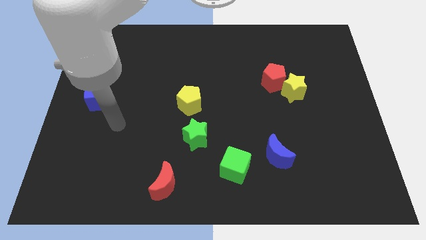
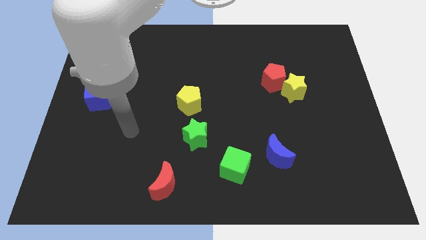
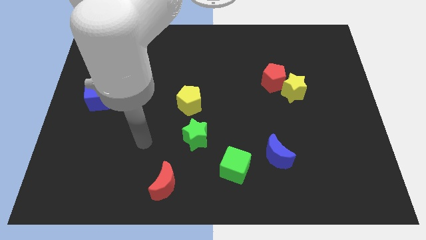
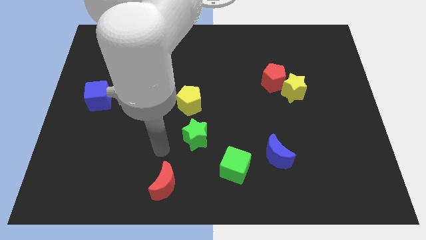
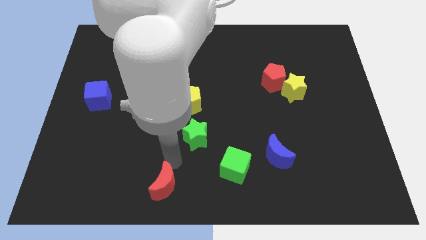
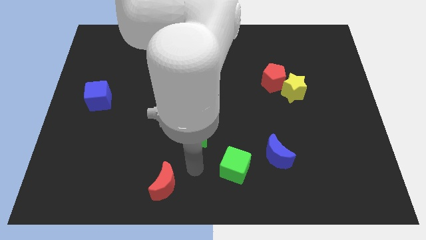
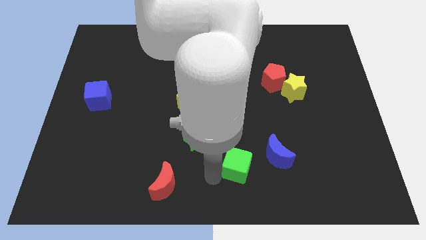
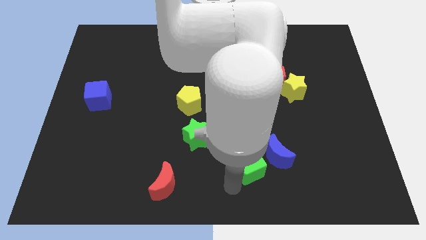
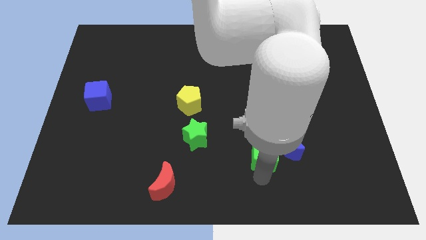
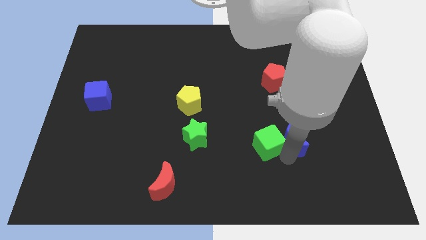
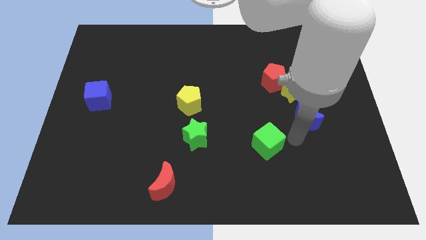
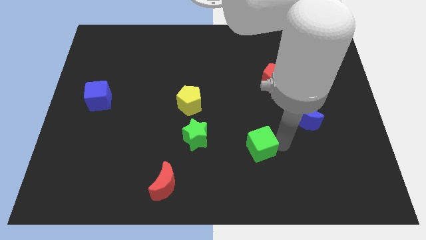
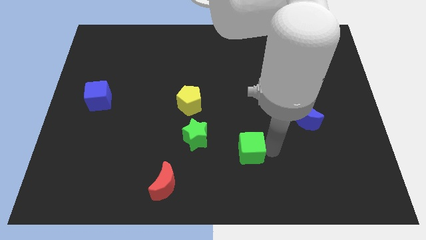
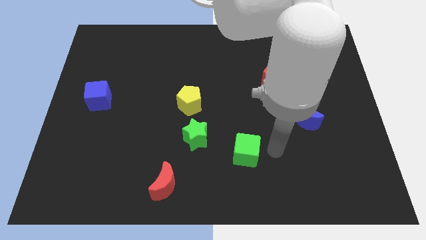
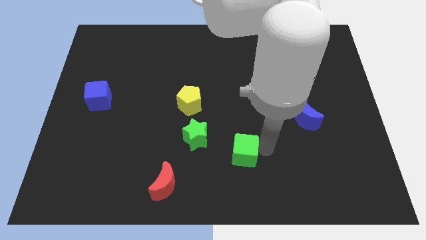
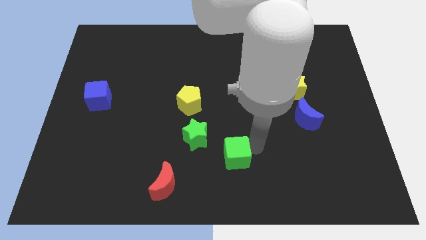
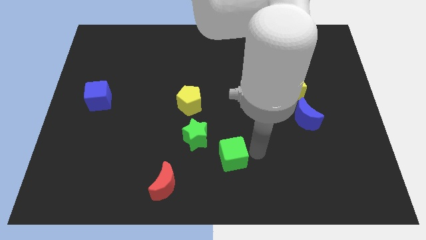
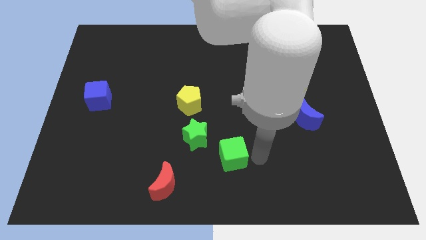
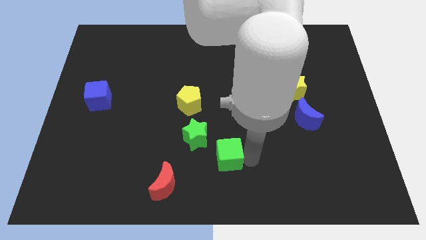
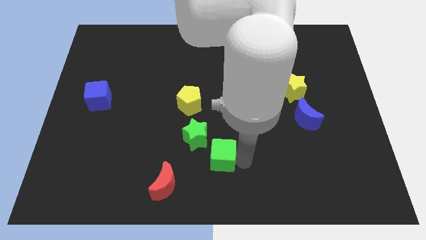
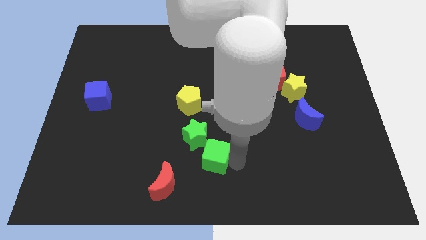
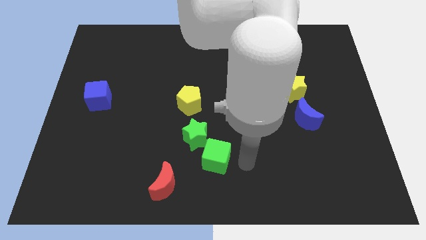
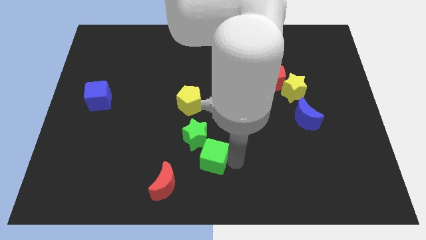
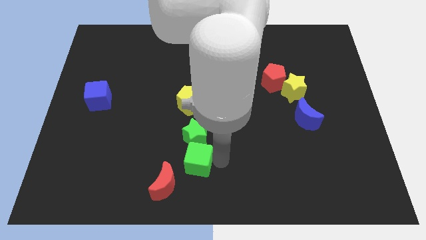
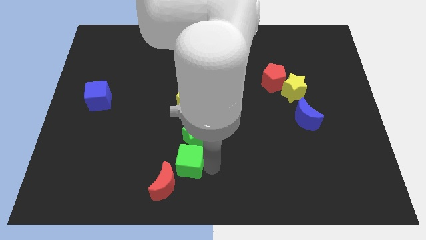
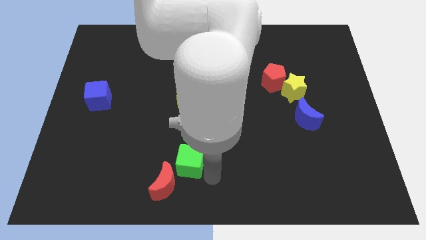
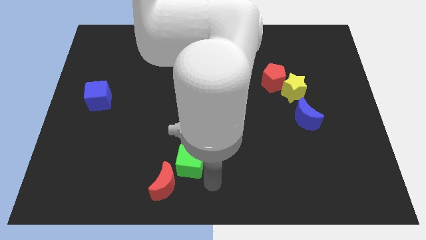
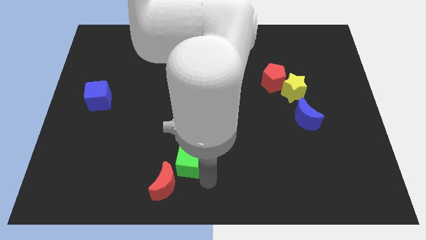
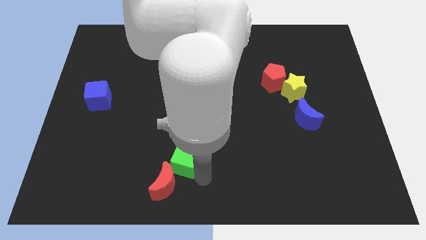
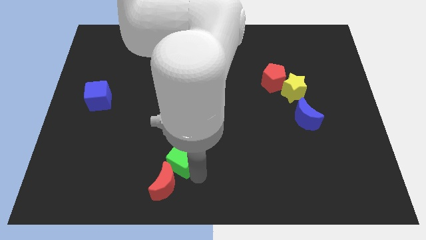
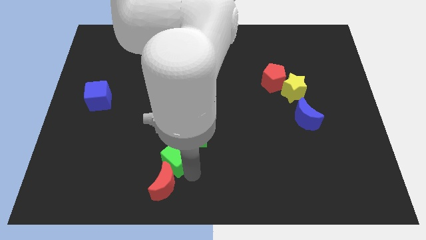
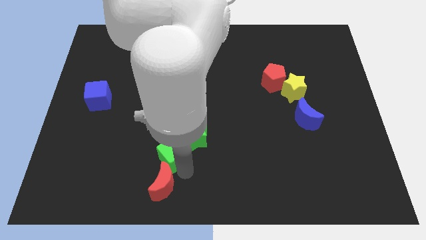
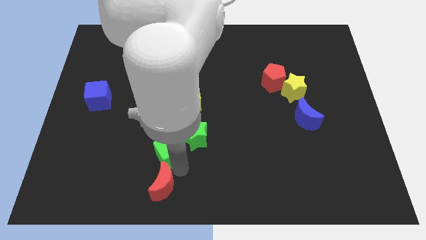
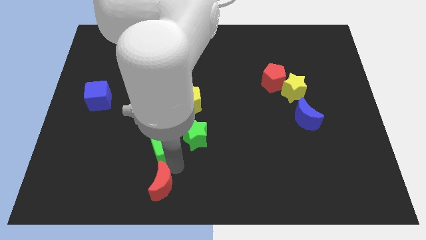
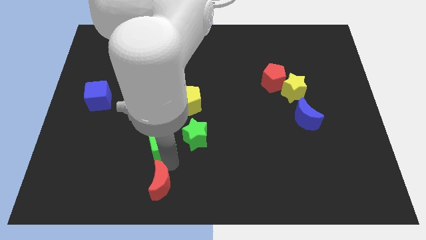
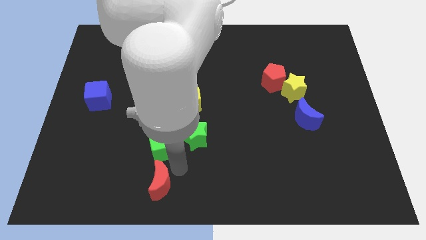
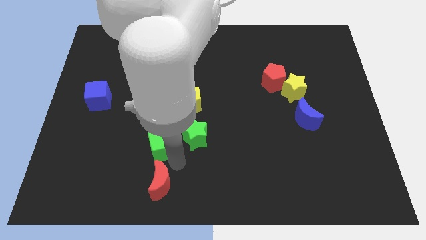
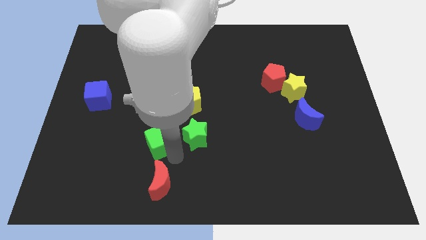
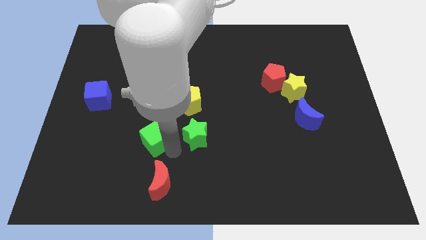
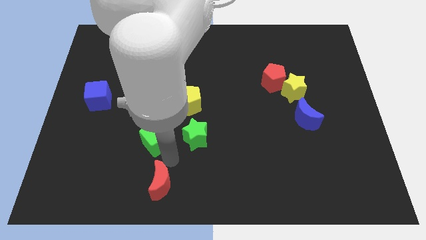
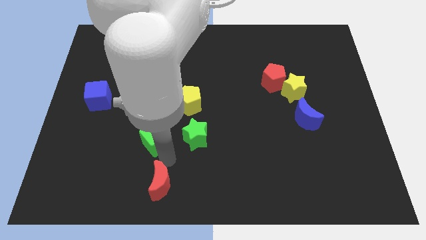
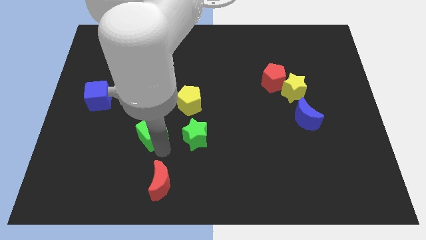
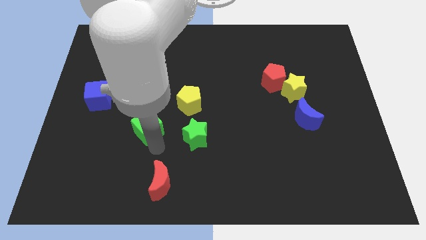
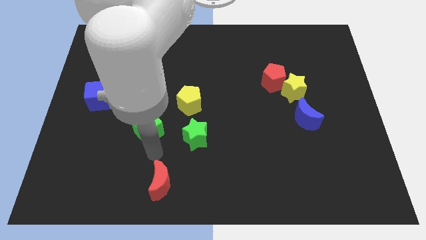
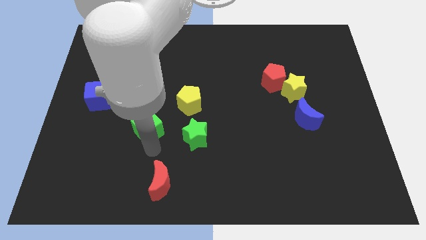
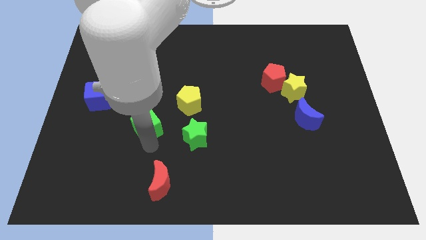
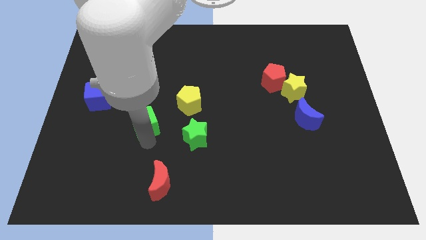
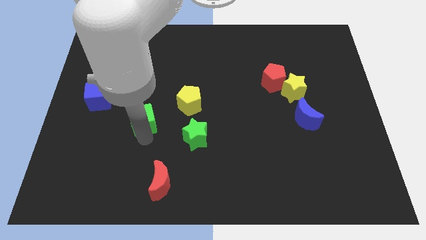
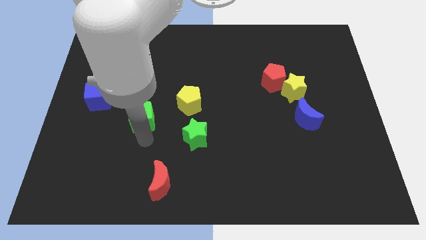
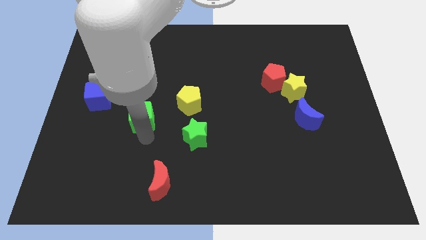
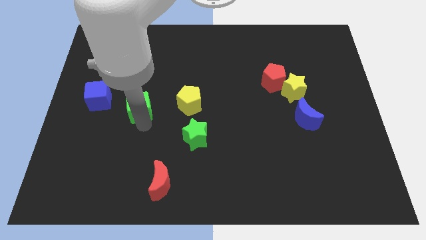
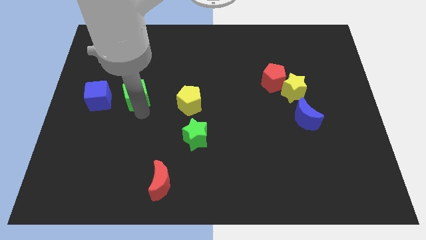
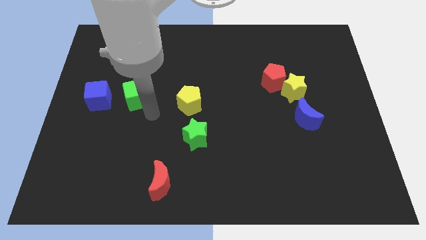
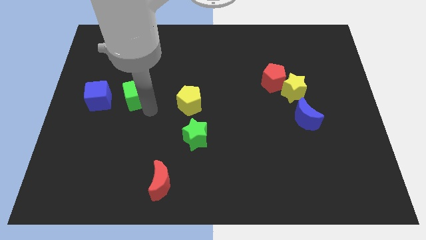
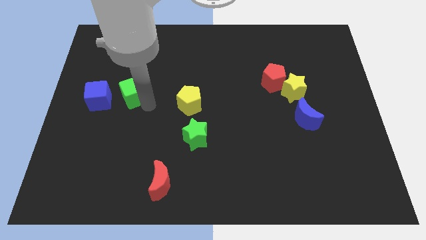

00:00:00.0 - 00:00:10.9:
put the green cube diagonally up and to the right of the blue cube

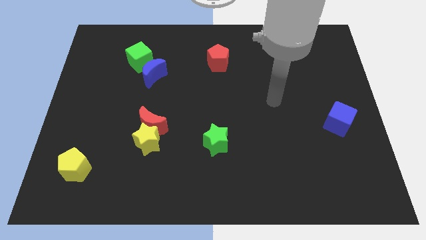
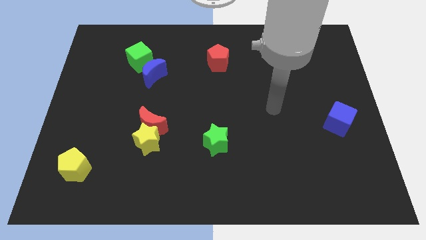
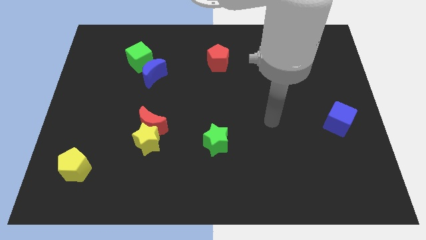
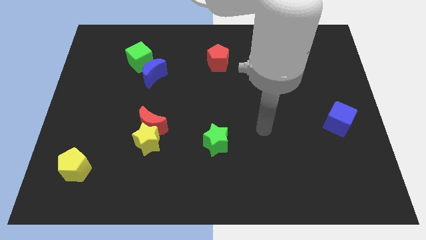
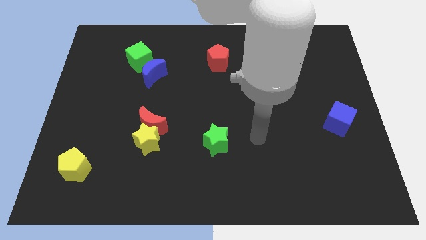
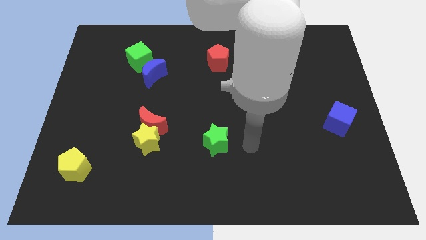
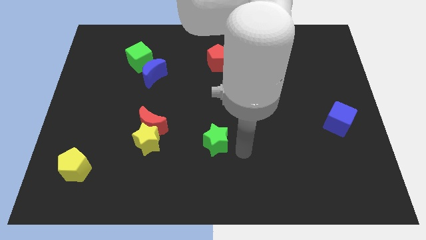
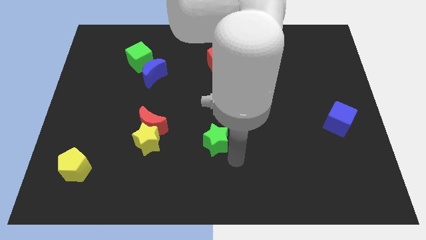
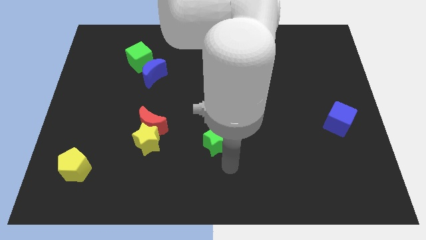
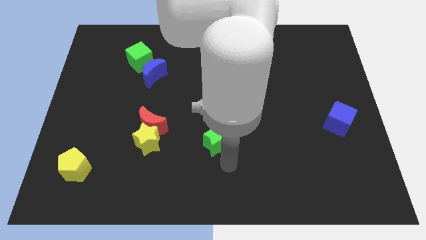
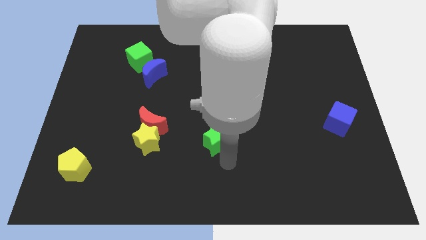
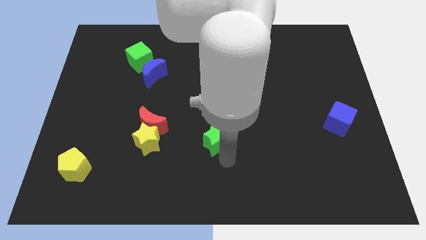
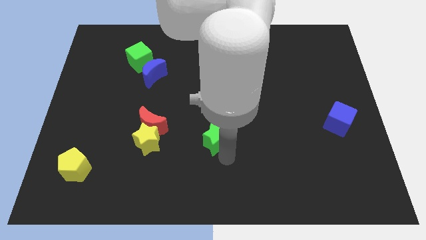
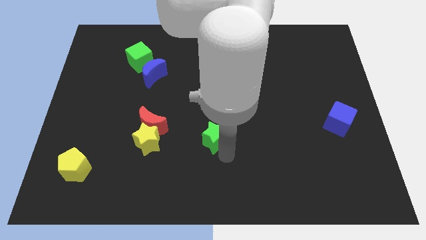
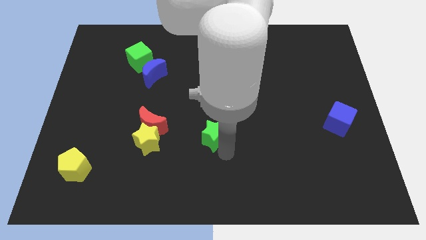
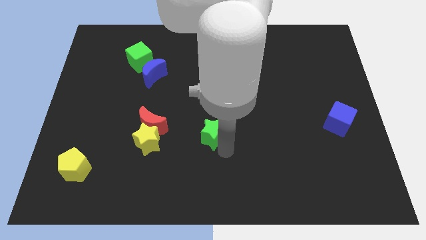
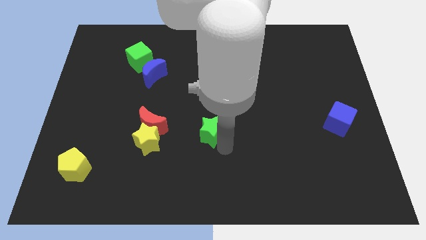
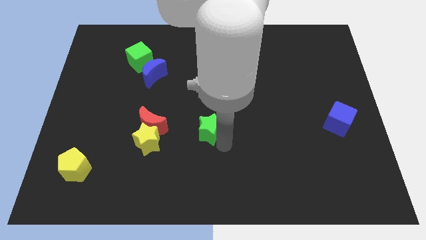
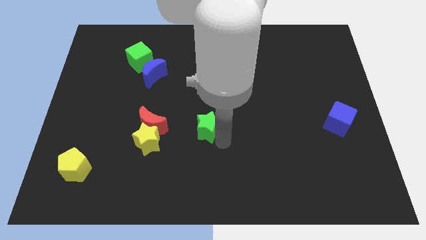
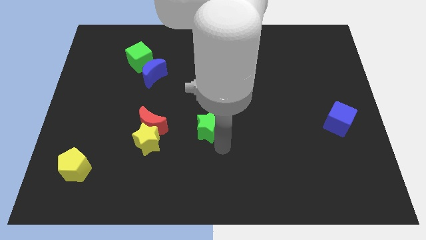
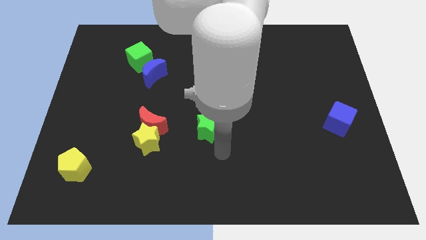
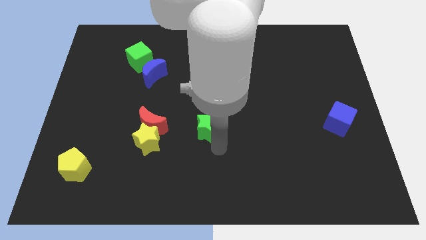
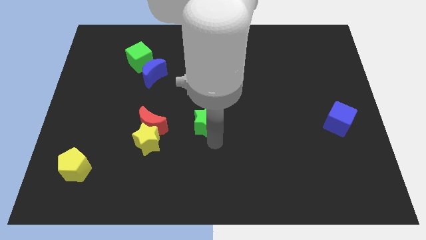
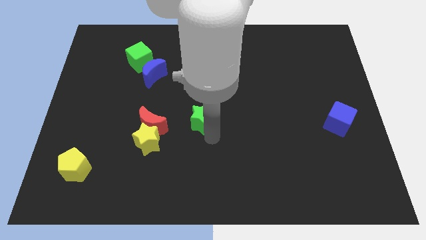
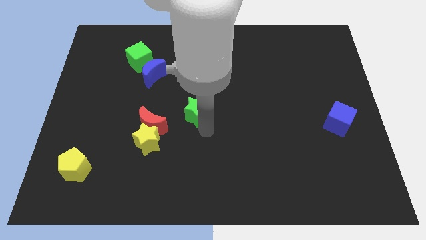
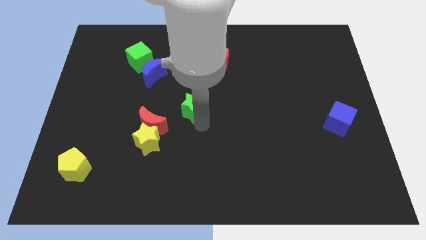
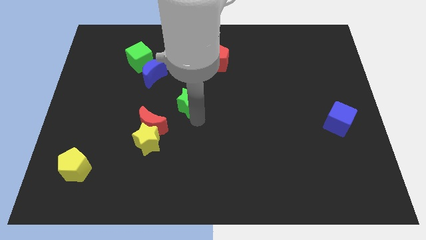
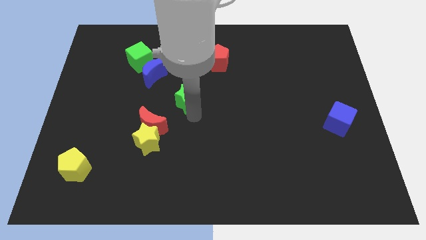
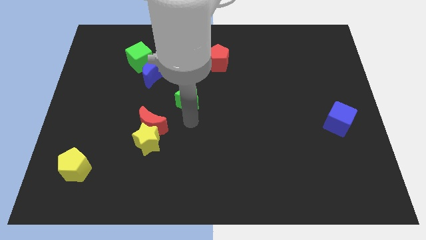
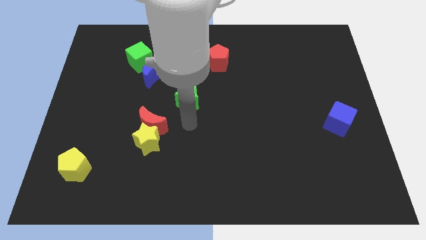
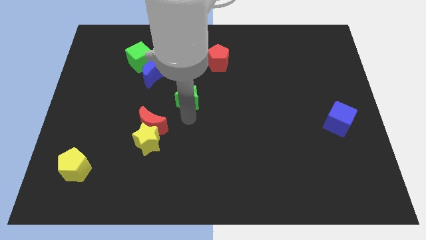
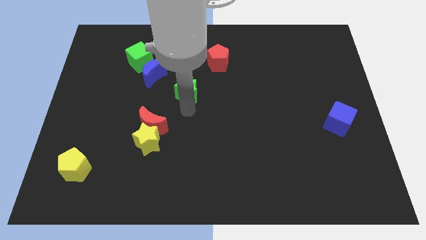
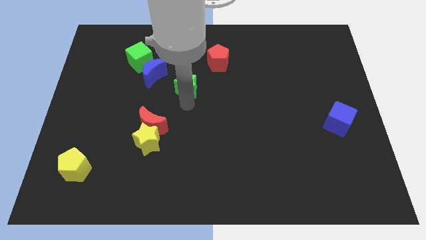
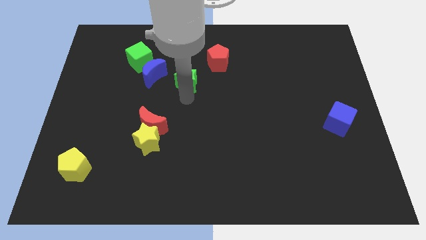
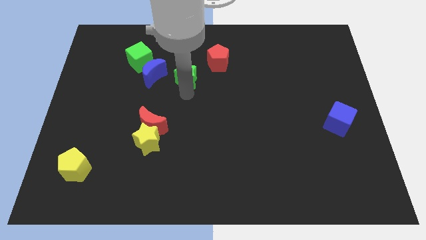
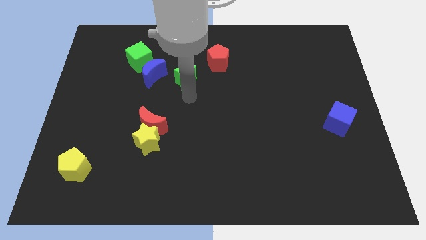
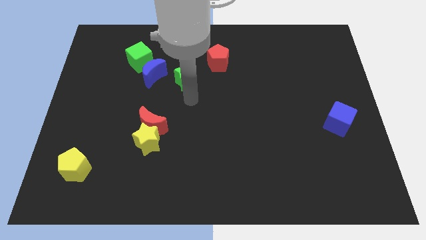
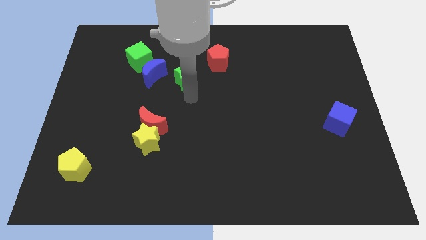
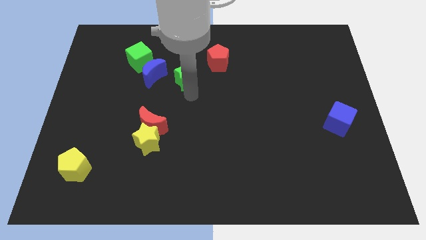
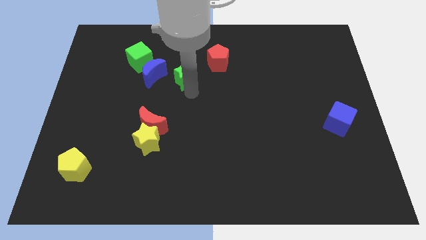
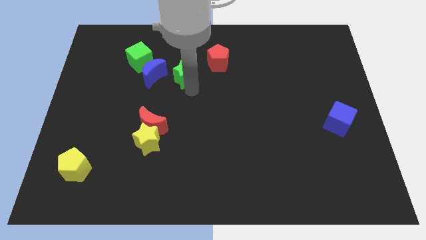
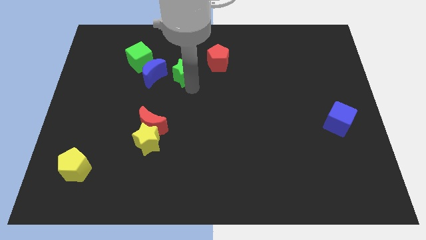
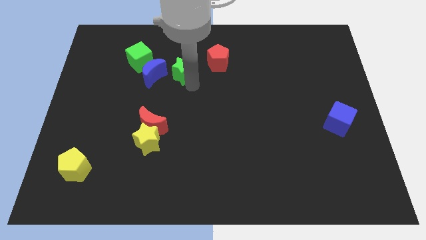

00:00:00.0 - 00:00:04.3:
move the green star just right of the green cube
